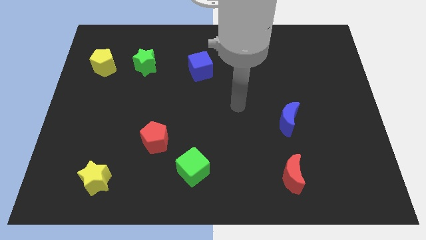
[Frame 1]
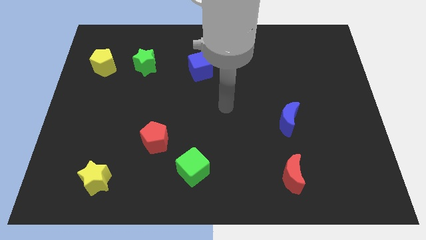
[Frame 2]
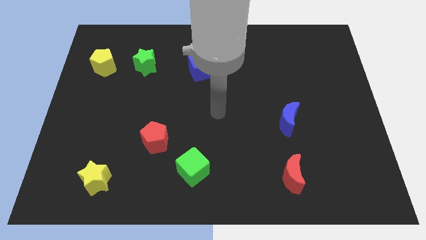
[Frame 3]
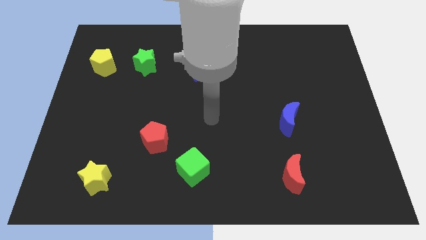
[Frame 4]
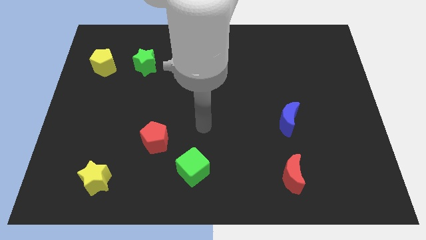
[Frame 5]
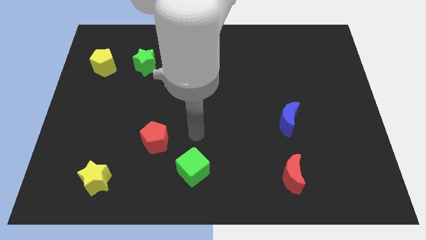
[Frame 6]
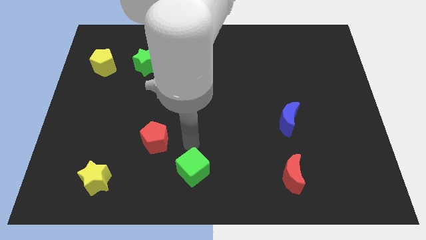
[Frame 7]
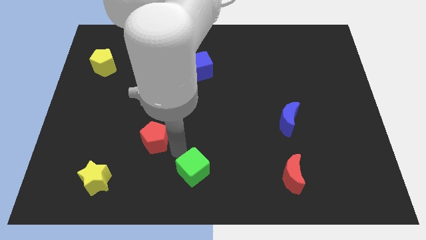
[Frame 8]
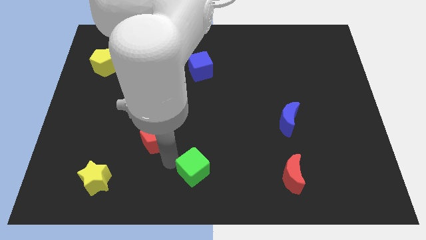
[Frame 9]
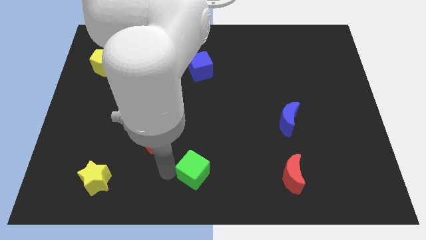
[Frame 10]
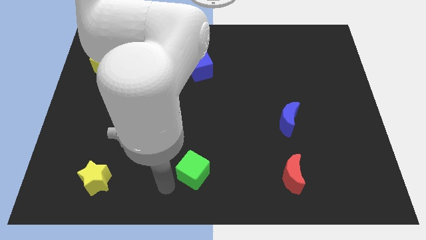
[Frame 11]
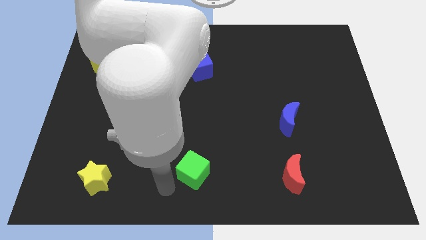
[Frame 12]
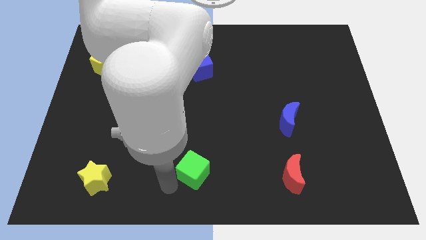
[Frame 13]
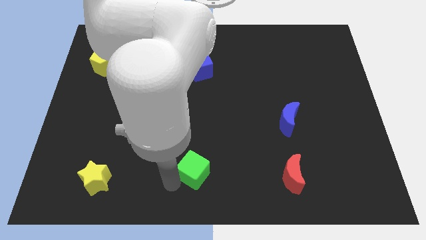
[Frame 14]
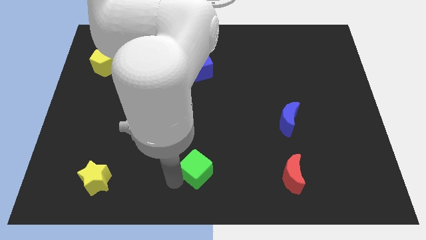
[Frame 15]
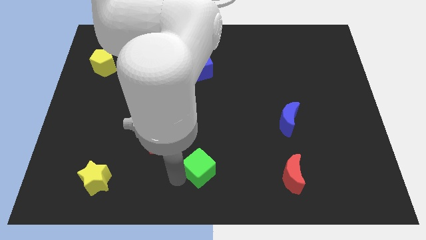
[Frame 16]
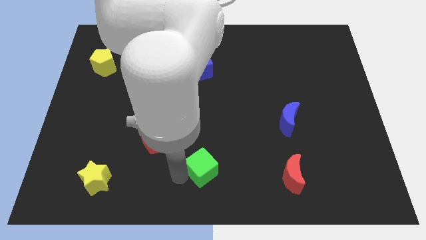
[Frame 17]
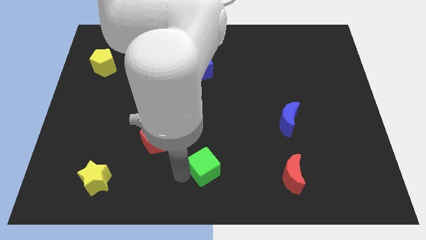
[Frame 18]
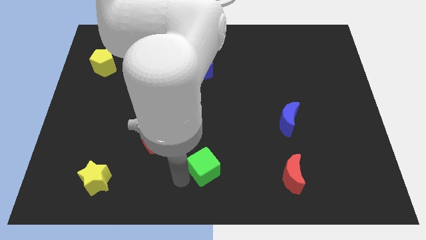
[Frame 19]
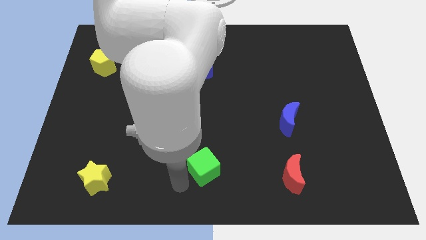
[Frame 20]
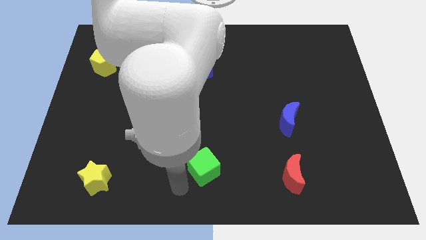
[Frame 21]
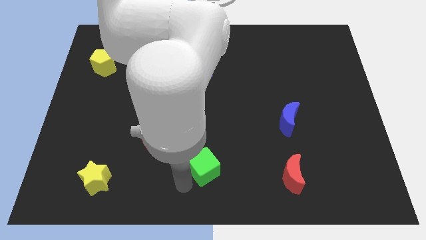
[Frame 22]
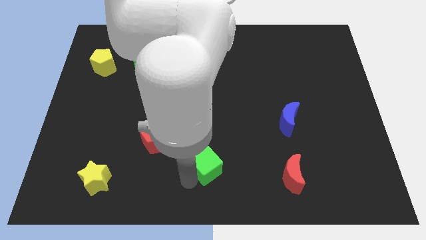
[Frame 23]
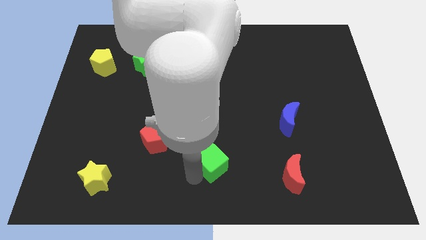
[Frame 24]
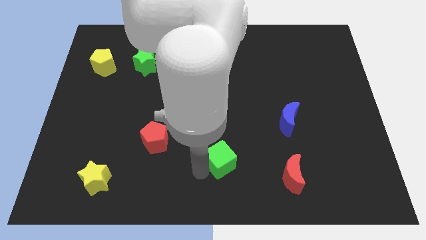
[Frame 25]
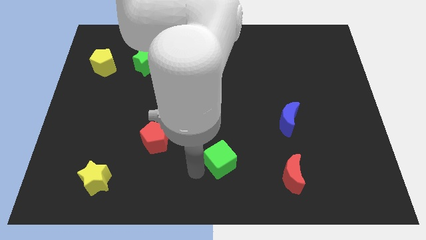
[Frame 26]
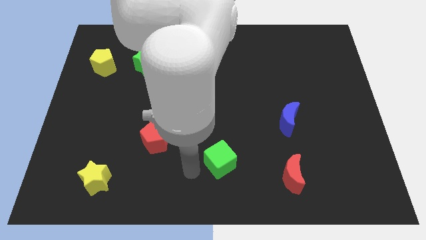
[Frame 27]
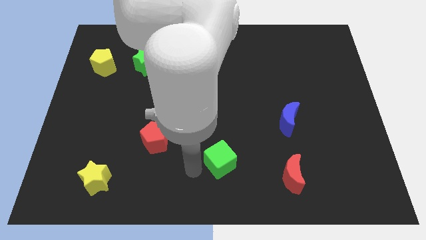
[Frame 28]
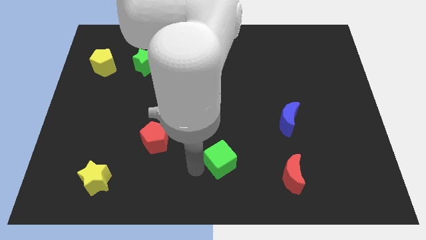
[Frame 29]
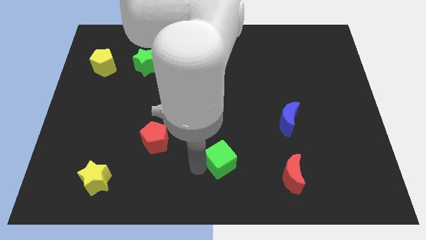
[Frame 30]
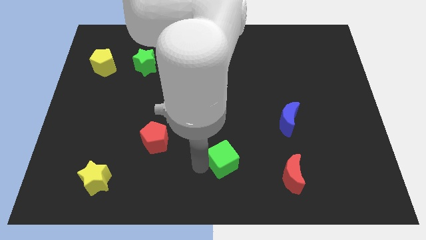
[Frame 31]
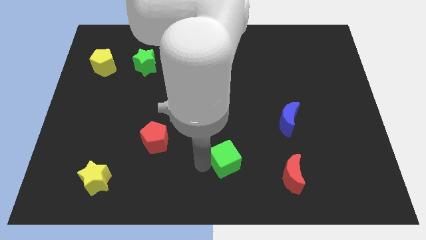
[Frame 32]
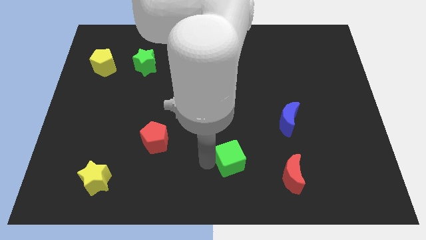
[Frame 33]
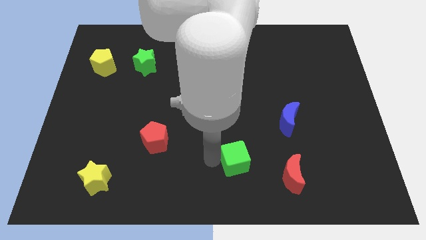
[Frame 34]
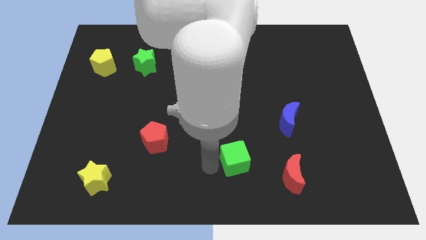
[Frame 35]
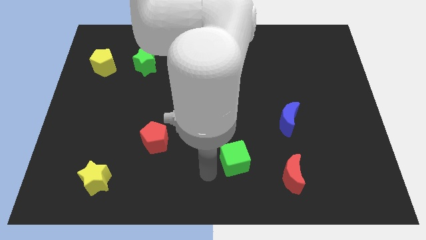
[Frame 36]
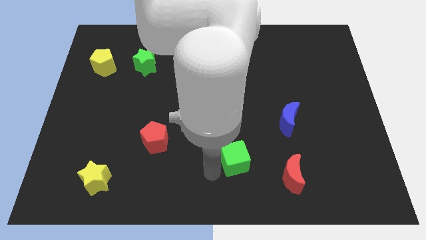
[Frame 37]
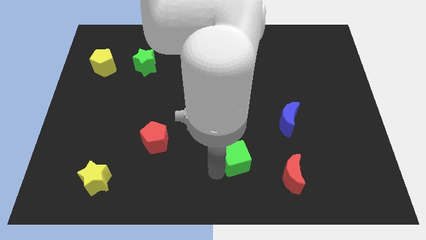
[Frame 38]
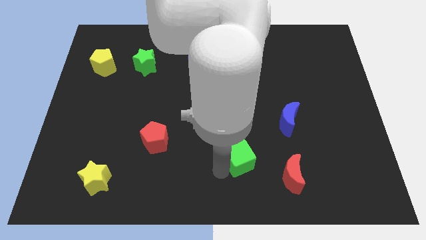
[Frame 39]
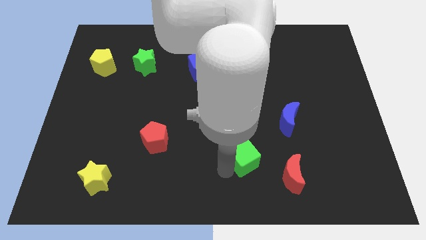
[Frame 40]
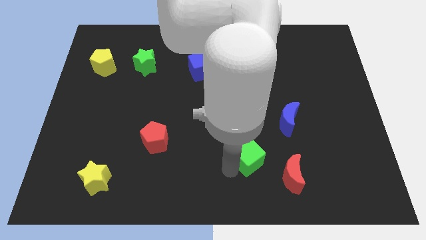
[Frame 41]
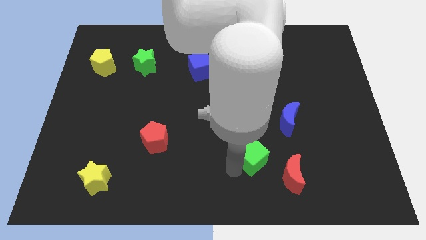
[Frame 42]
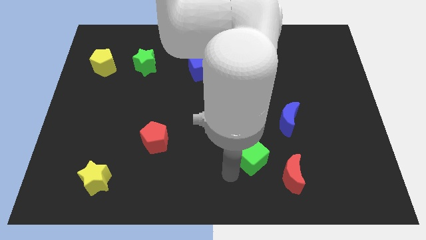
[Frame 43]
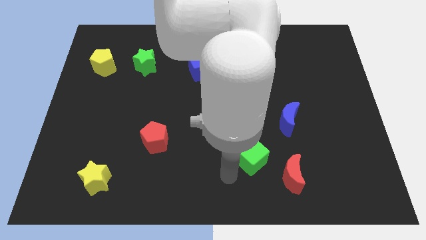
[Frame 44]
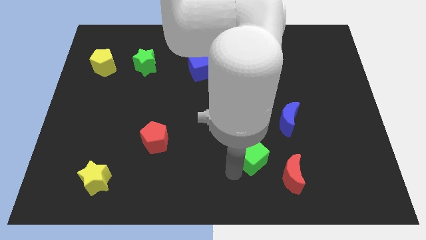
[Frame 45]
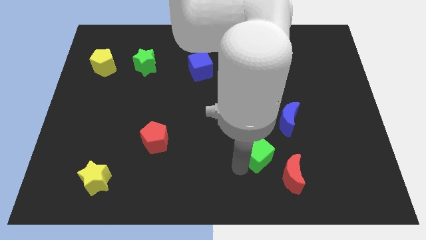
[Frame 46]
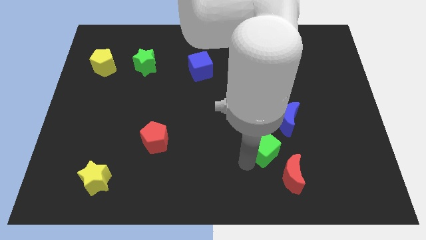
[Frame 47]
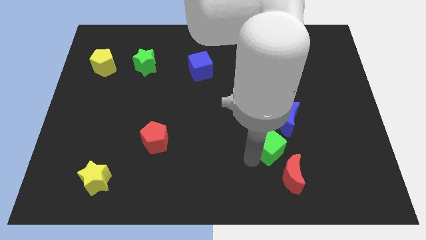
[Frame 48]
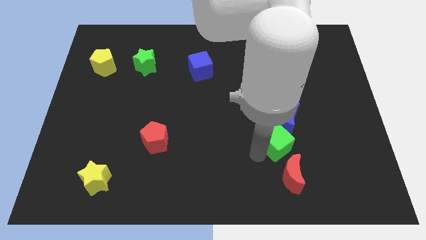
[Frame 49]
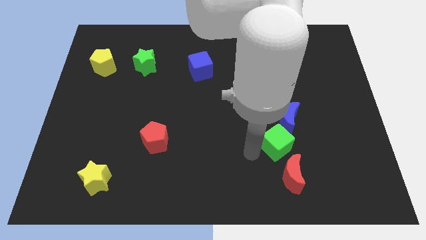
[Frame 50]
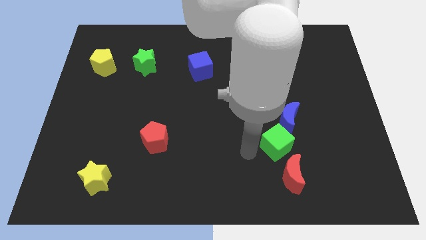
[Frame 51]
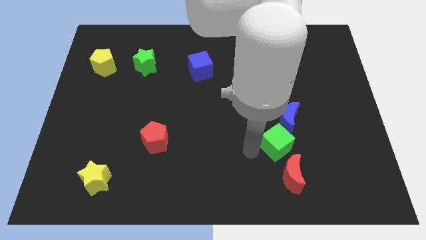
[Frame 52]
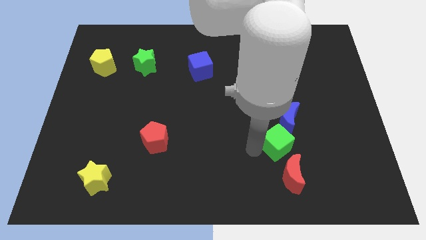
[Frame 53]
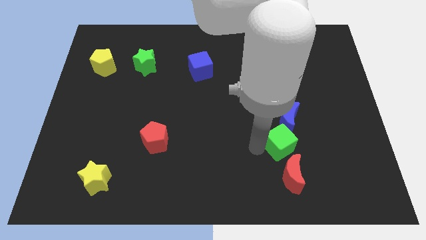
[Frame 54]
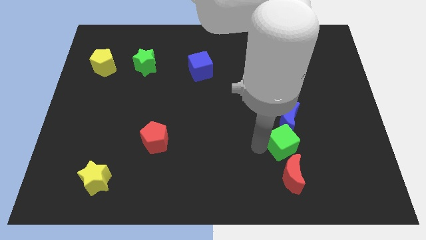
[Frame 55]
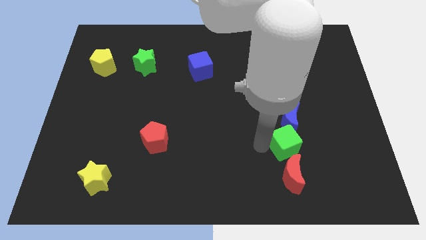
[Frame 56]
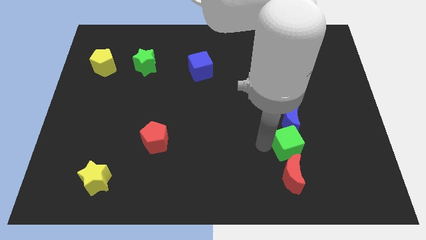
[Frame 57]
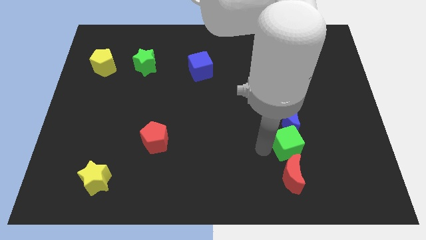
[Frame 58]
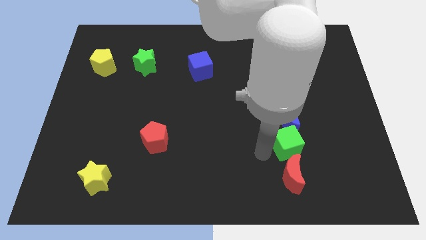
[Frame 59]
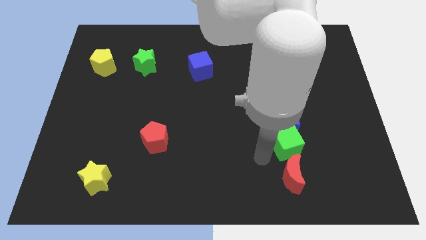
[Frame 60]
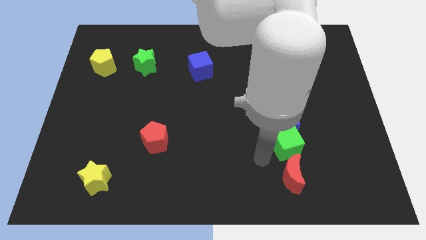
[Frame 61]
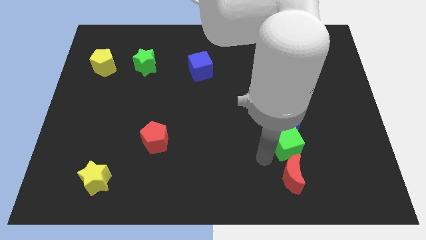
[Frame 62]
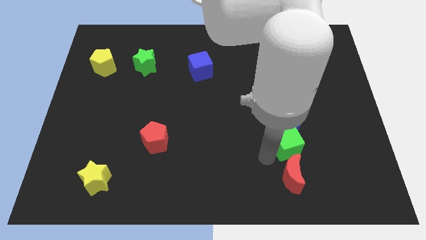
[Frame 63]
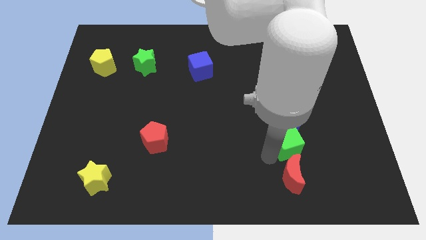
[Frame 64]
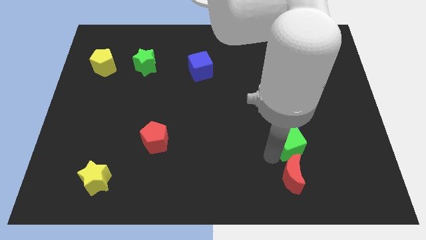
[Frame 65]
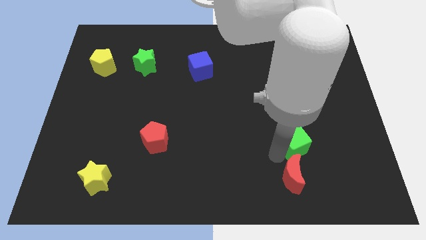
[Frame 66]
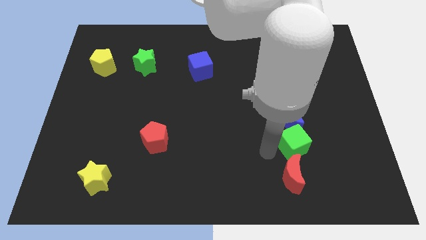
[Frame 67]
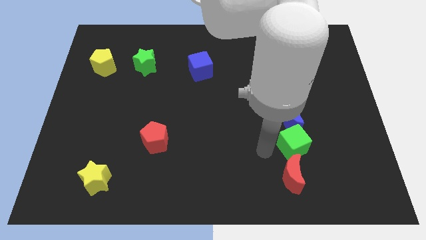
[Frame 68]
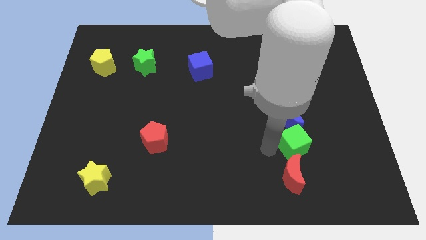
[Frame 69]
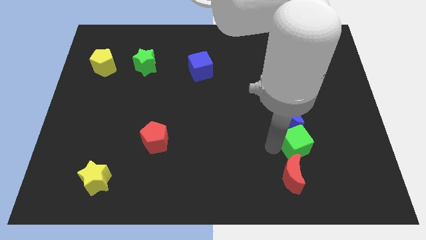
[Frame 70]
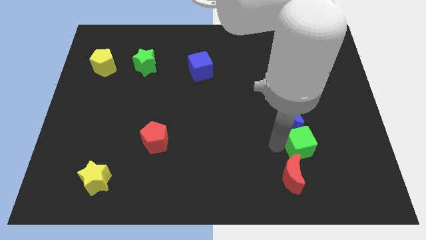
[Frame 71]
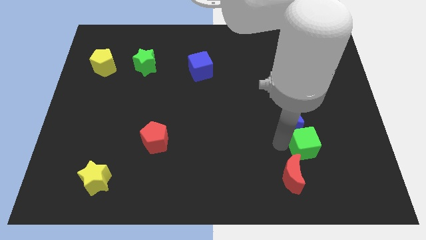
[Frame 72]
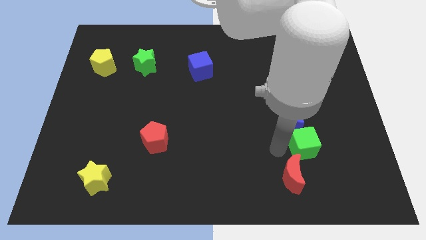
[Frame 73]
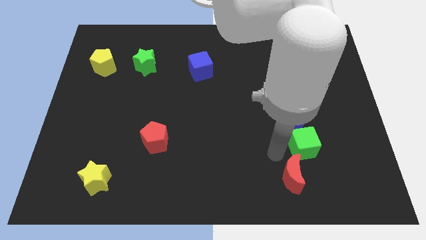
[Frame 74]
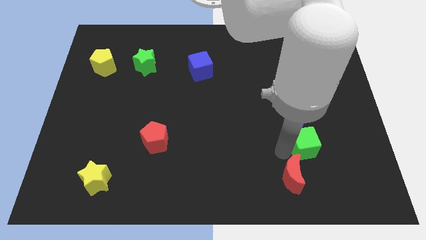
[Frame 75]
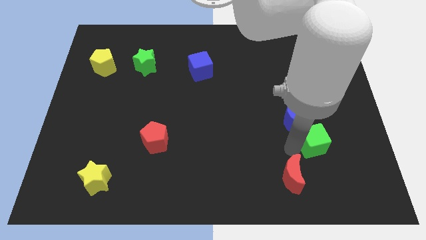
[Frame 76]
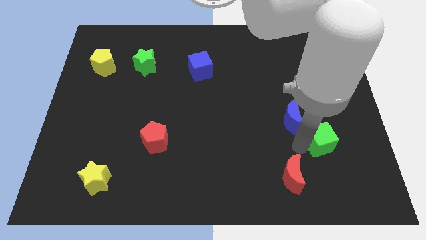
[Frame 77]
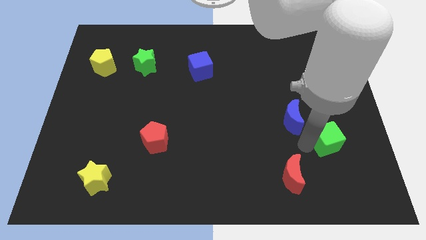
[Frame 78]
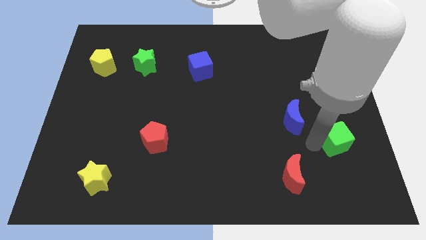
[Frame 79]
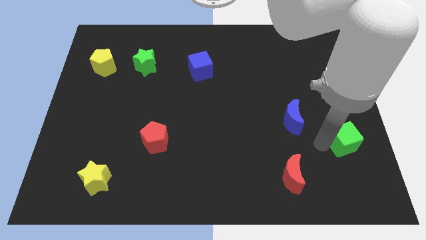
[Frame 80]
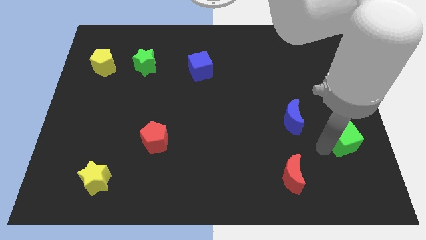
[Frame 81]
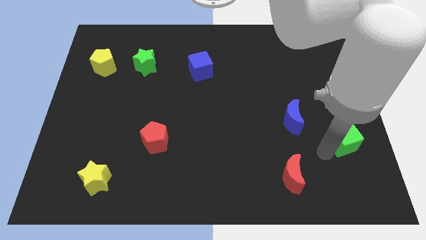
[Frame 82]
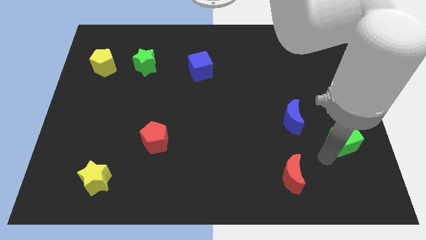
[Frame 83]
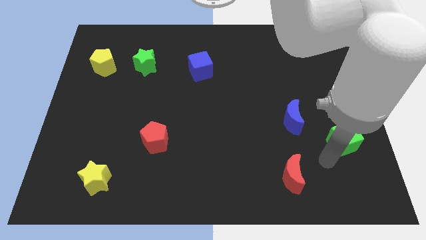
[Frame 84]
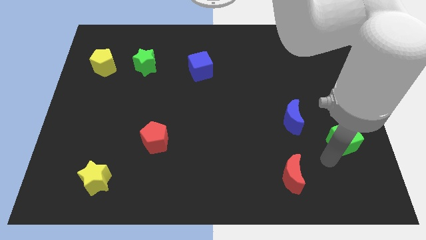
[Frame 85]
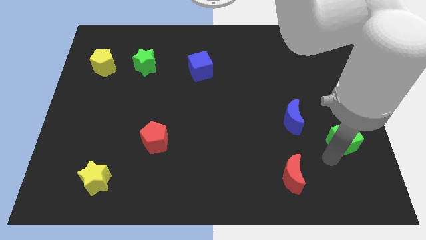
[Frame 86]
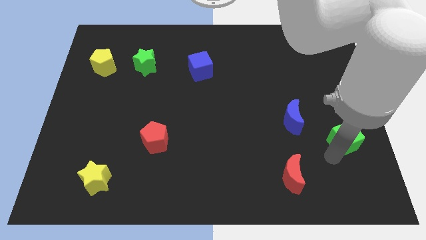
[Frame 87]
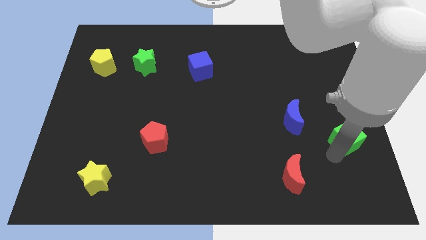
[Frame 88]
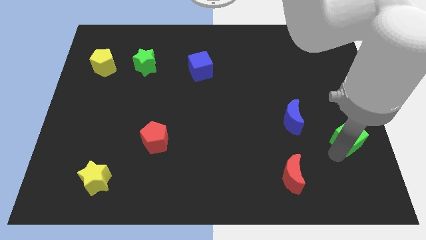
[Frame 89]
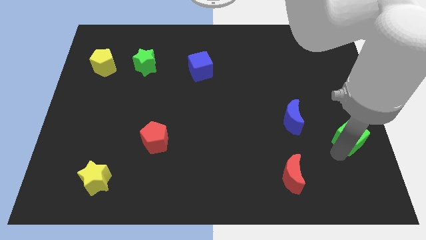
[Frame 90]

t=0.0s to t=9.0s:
push the green cube to the center right
